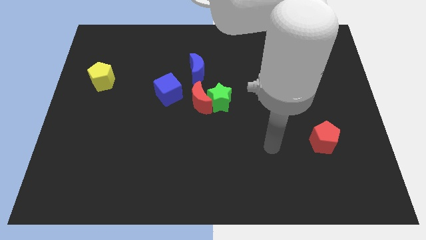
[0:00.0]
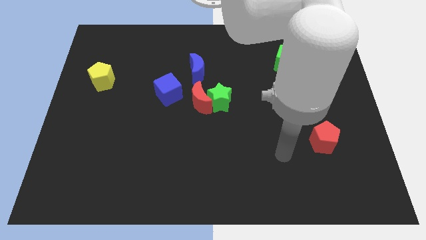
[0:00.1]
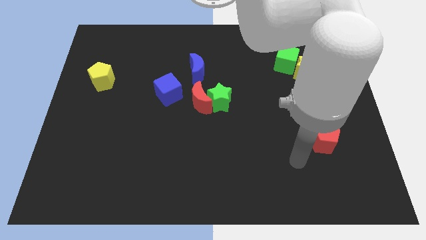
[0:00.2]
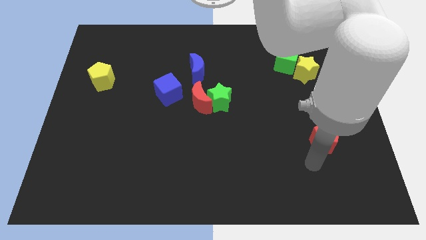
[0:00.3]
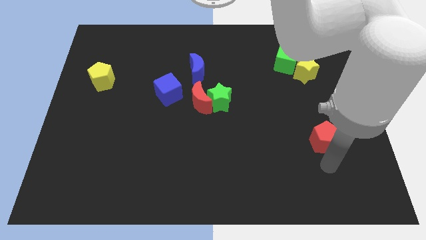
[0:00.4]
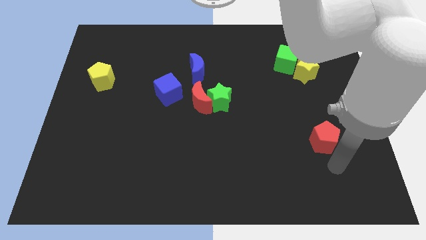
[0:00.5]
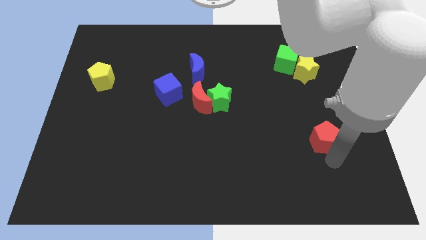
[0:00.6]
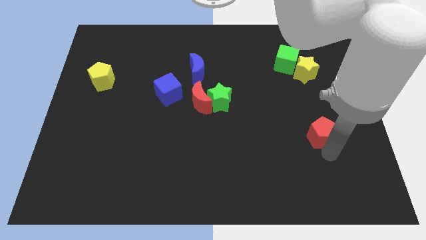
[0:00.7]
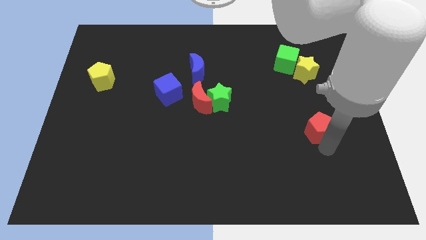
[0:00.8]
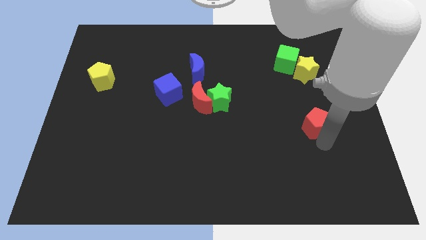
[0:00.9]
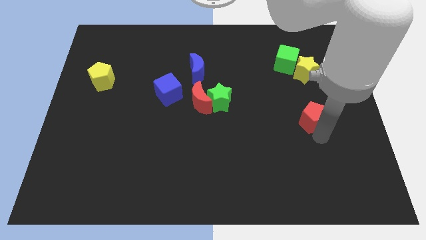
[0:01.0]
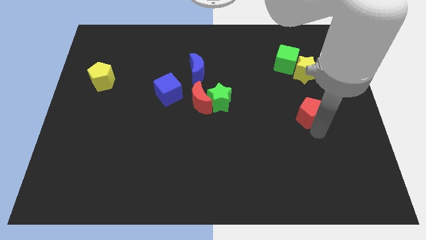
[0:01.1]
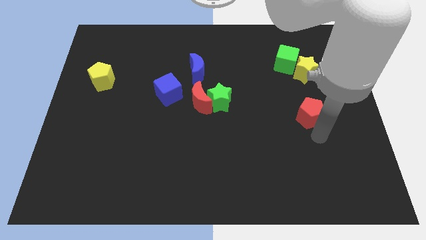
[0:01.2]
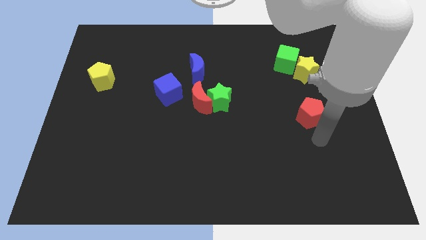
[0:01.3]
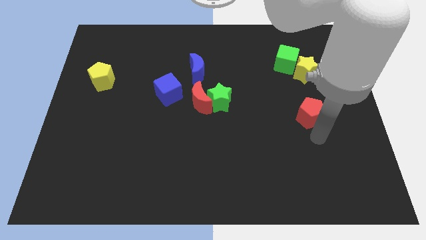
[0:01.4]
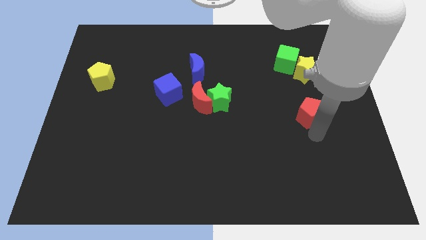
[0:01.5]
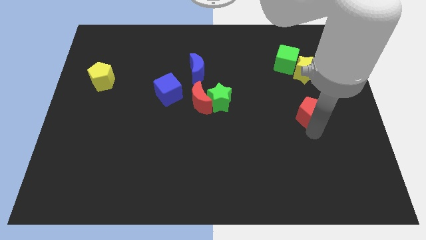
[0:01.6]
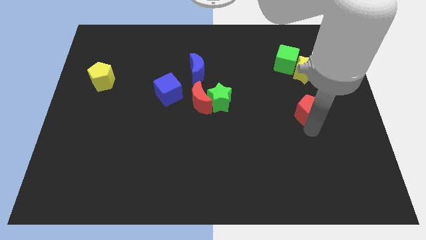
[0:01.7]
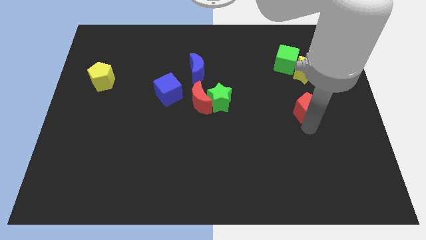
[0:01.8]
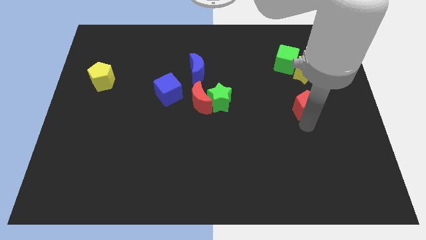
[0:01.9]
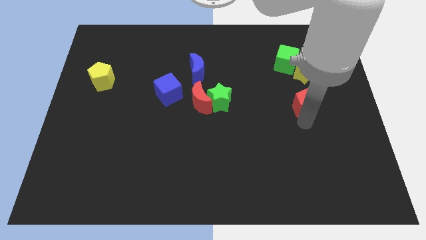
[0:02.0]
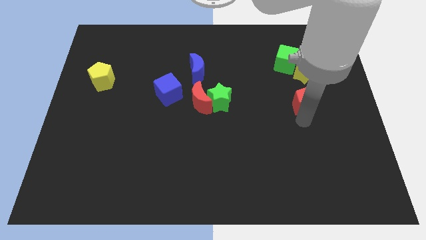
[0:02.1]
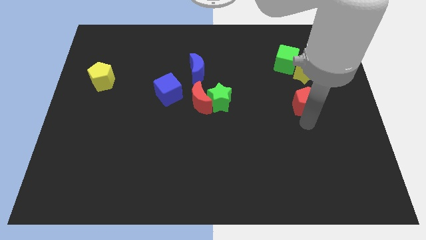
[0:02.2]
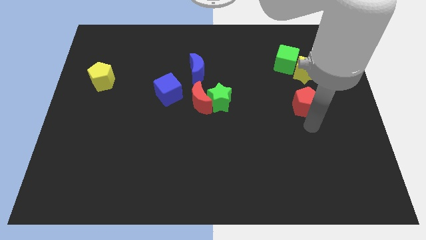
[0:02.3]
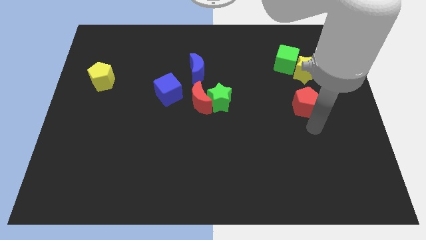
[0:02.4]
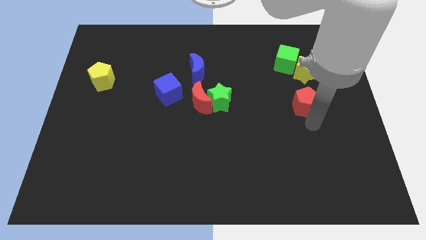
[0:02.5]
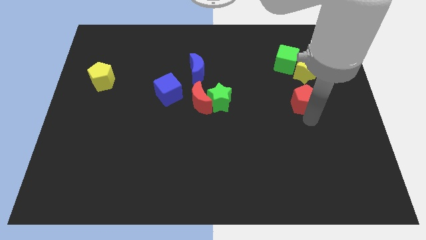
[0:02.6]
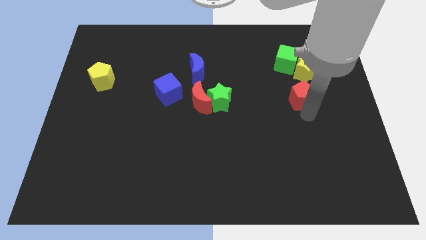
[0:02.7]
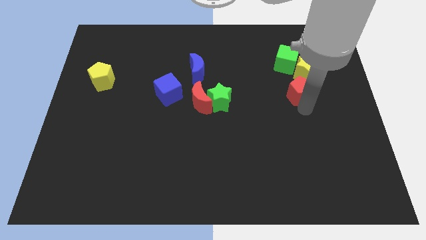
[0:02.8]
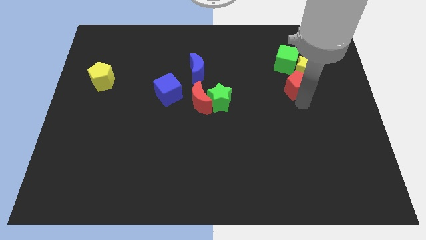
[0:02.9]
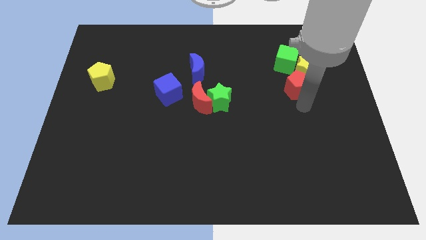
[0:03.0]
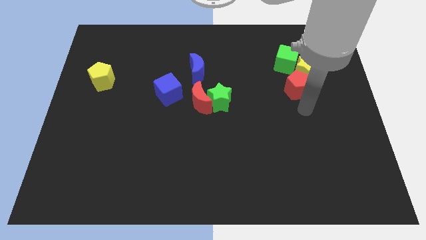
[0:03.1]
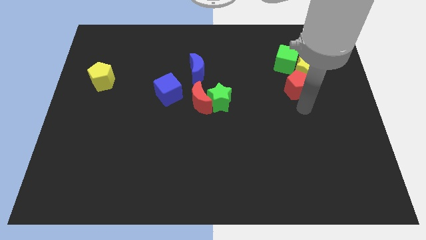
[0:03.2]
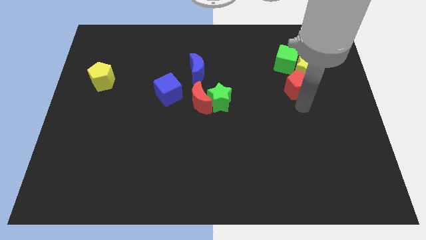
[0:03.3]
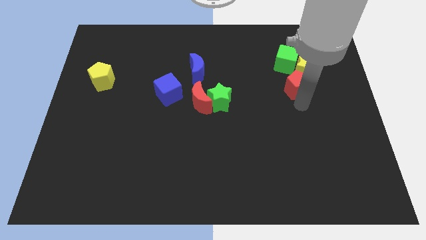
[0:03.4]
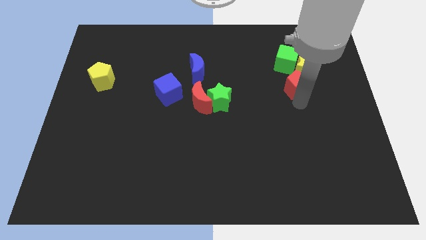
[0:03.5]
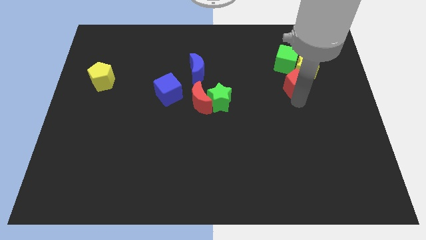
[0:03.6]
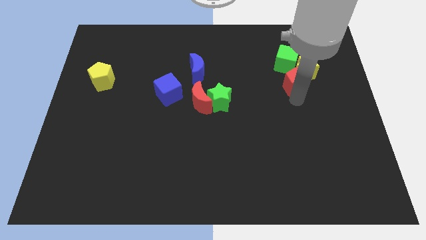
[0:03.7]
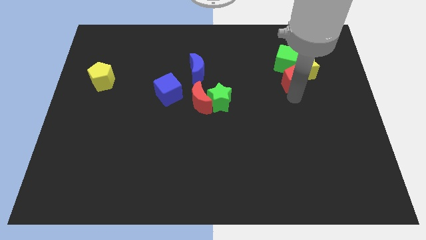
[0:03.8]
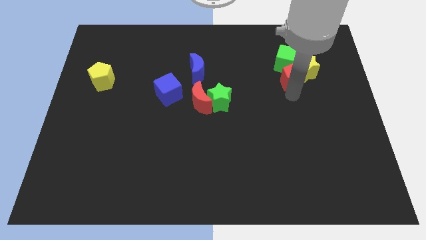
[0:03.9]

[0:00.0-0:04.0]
put the red pentagon close to the green cube

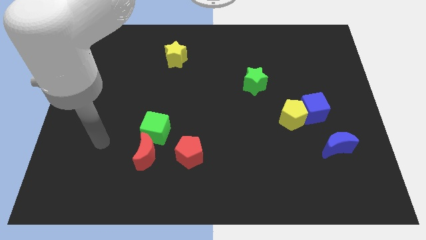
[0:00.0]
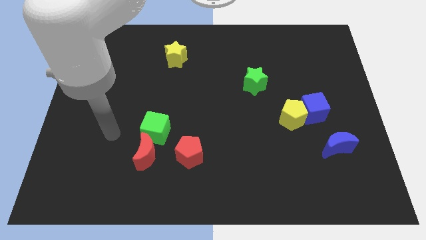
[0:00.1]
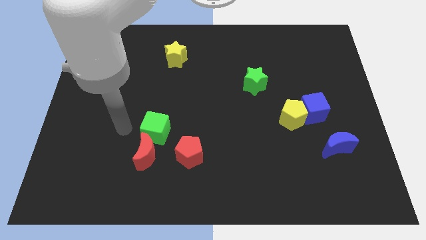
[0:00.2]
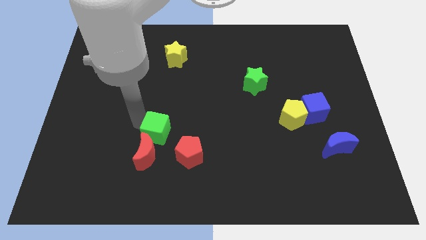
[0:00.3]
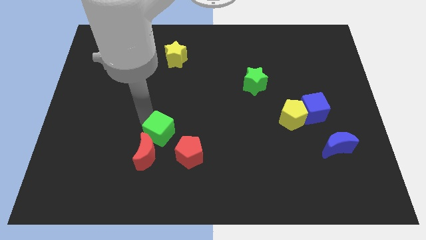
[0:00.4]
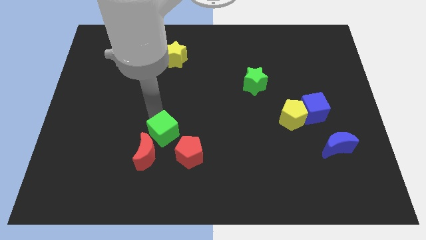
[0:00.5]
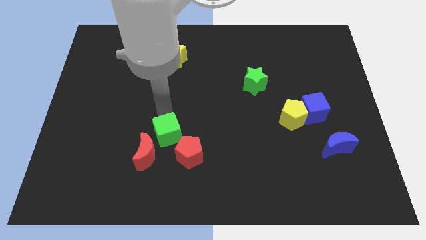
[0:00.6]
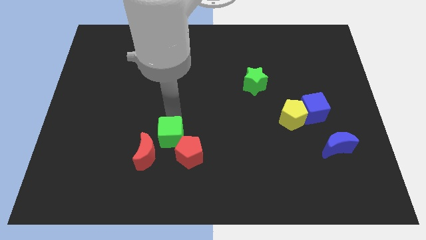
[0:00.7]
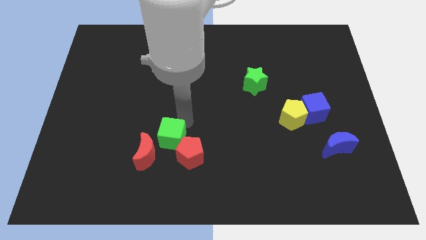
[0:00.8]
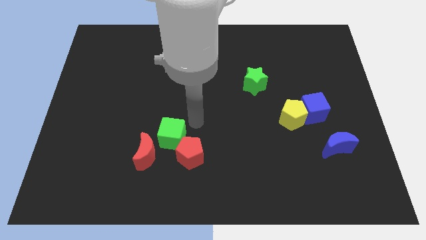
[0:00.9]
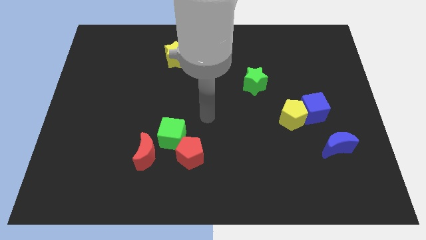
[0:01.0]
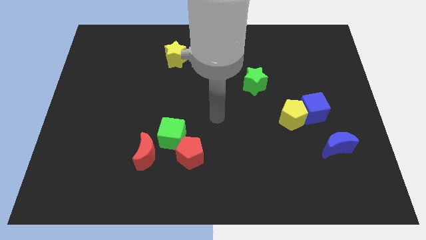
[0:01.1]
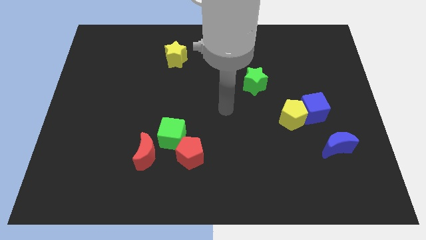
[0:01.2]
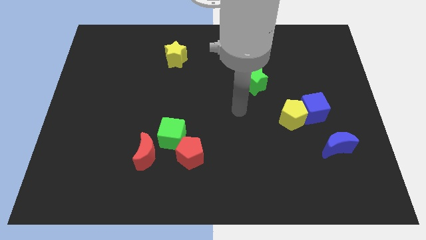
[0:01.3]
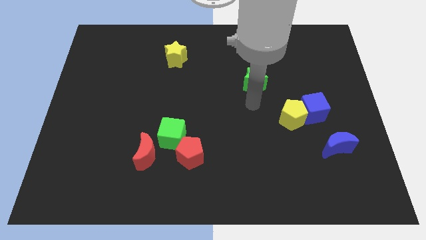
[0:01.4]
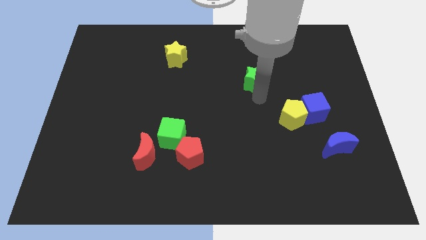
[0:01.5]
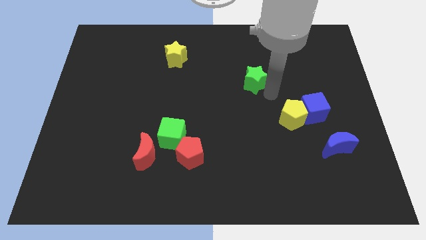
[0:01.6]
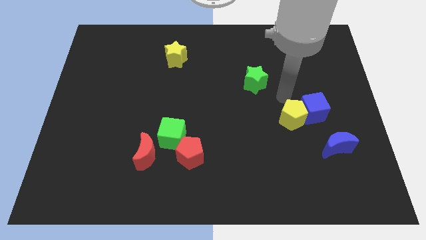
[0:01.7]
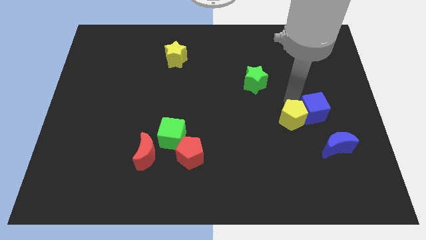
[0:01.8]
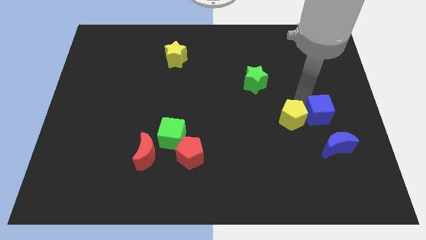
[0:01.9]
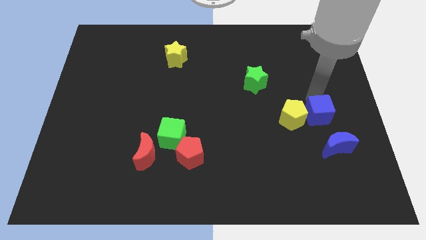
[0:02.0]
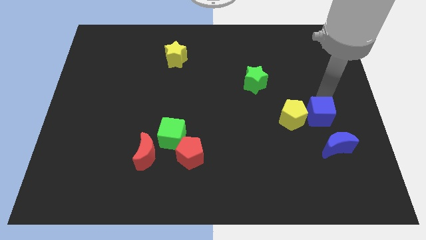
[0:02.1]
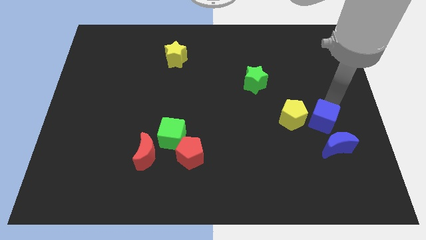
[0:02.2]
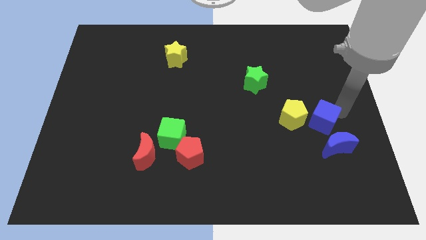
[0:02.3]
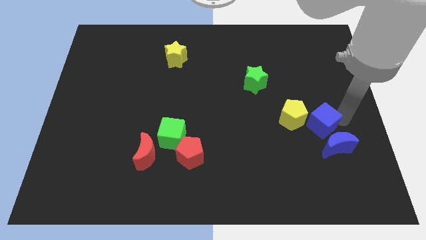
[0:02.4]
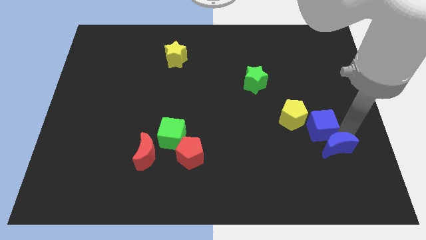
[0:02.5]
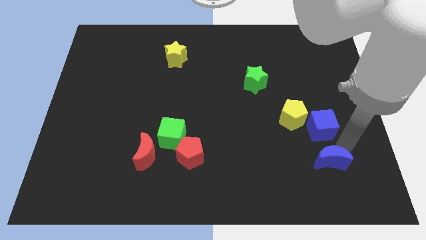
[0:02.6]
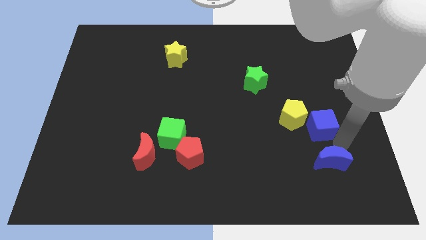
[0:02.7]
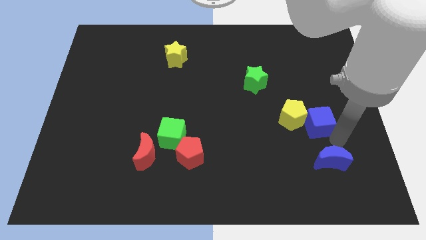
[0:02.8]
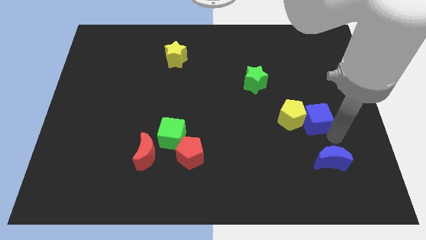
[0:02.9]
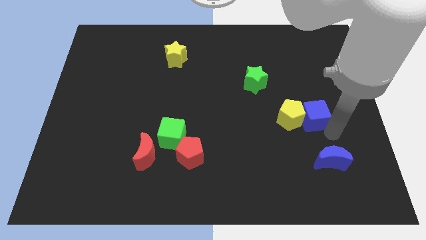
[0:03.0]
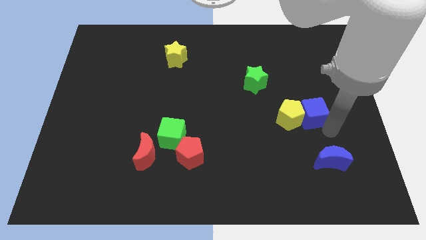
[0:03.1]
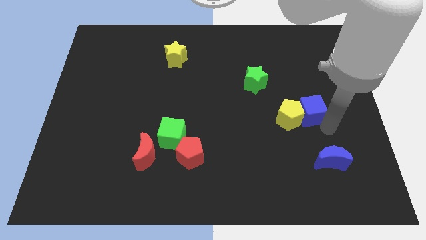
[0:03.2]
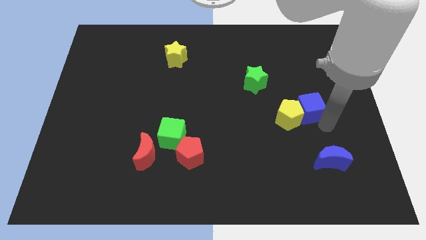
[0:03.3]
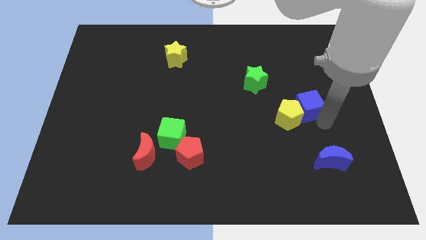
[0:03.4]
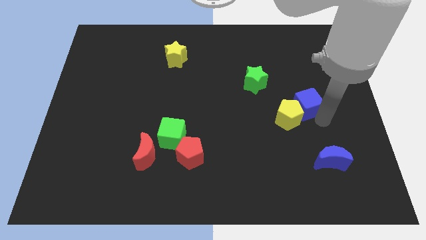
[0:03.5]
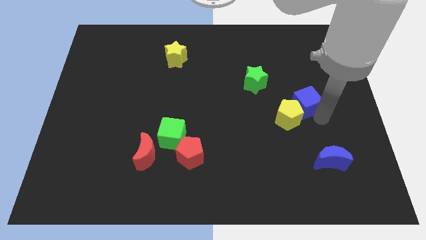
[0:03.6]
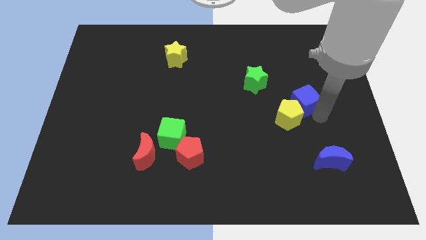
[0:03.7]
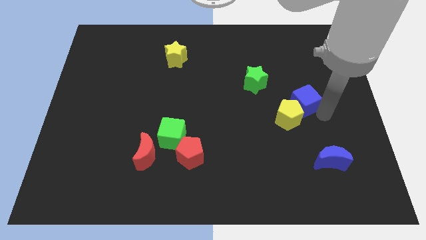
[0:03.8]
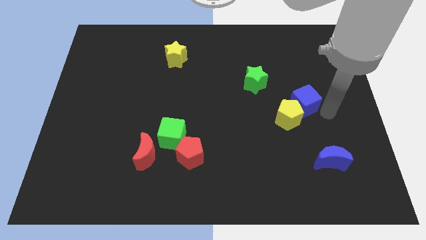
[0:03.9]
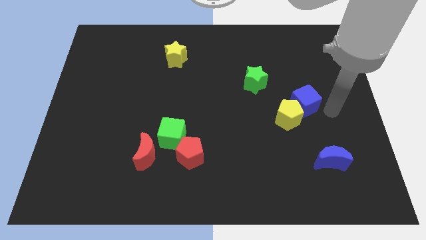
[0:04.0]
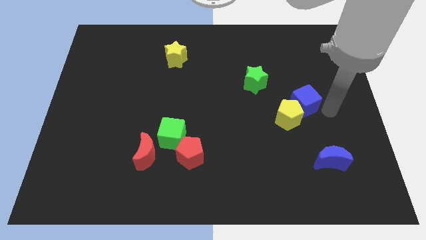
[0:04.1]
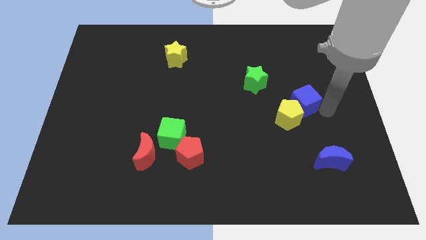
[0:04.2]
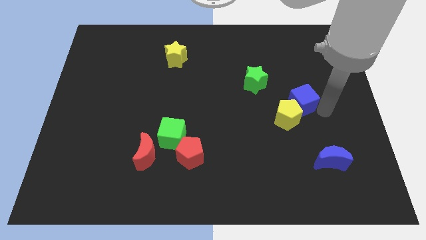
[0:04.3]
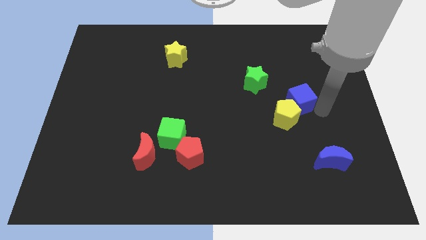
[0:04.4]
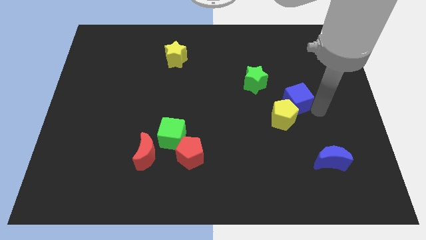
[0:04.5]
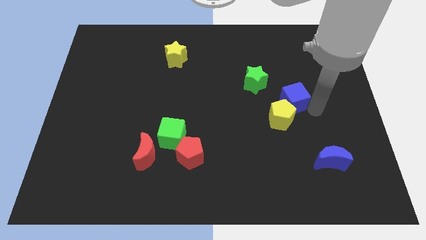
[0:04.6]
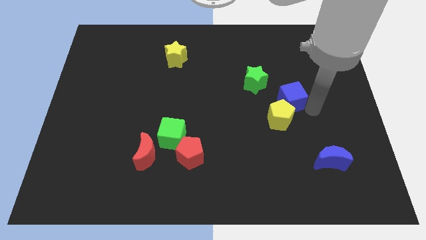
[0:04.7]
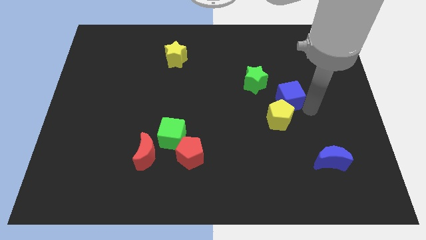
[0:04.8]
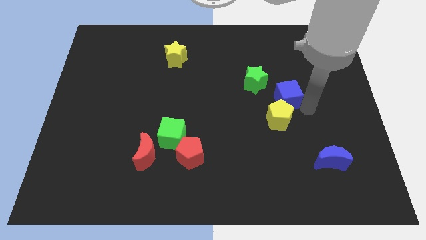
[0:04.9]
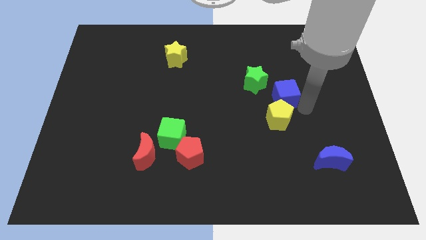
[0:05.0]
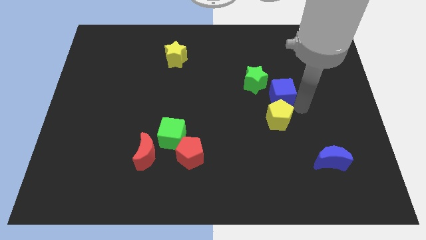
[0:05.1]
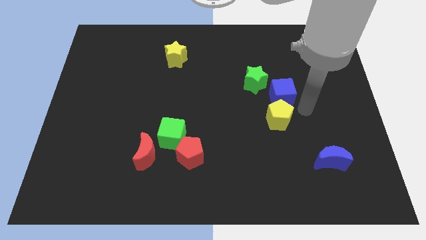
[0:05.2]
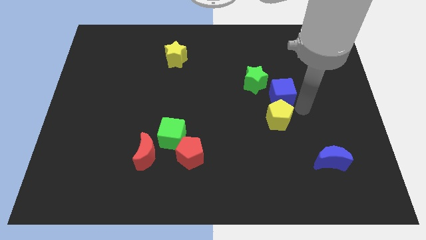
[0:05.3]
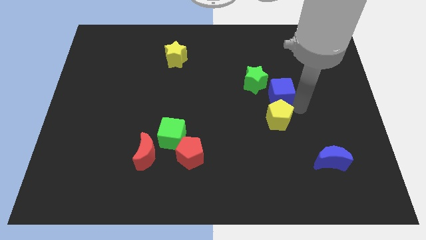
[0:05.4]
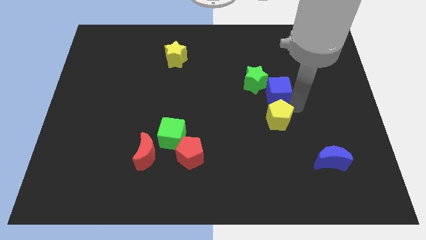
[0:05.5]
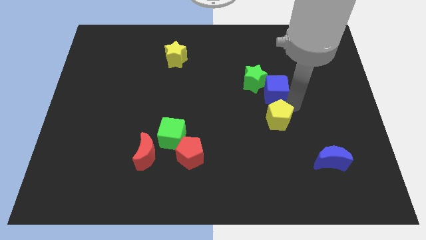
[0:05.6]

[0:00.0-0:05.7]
move the blue cube to the green star
